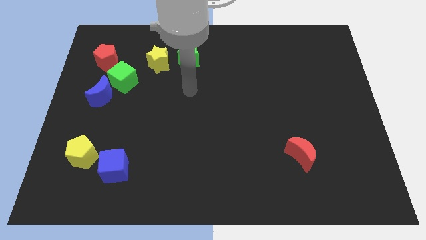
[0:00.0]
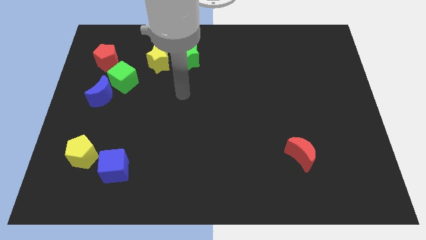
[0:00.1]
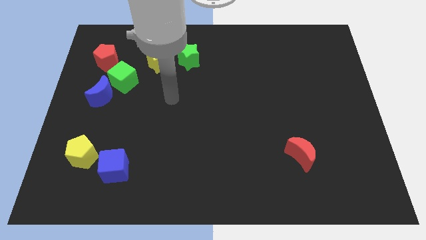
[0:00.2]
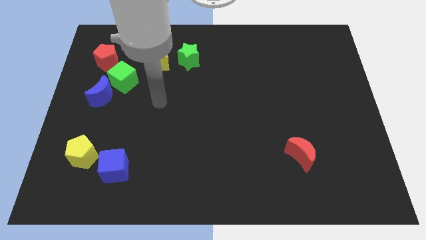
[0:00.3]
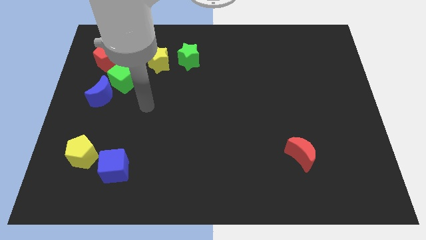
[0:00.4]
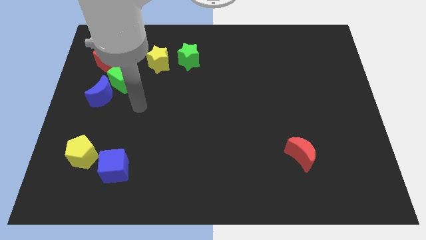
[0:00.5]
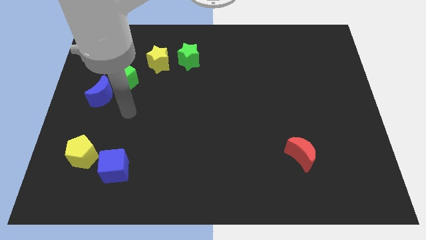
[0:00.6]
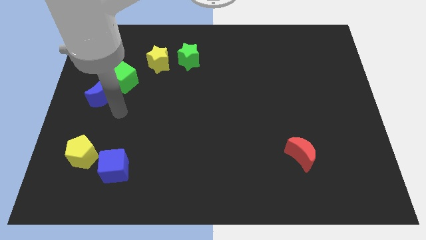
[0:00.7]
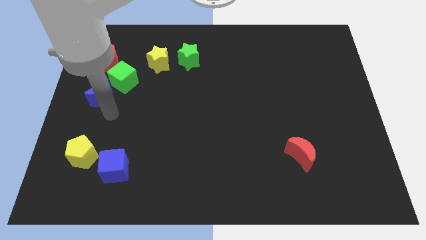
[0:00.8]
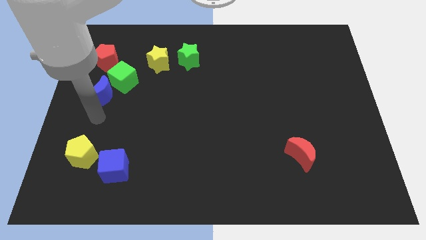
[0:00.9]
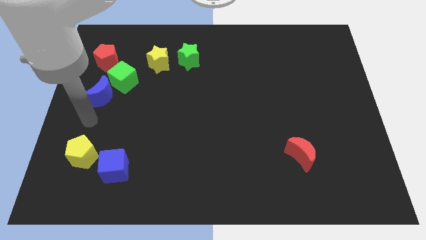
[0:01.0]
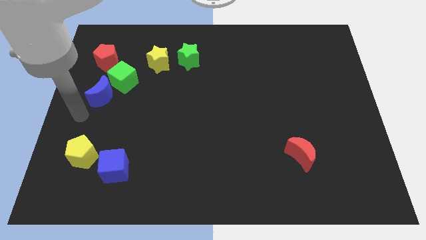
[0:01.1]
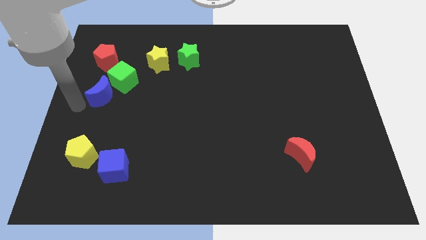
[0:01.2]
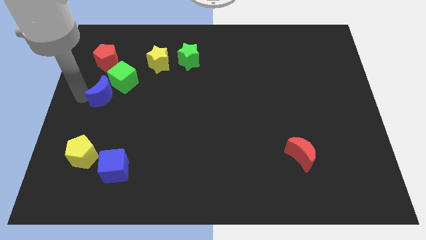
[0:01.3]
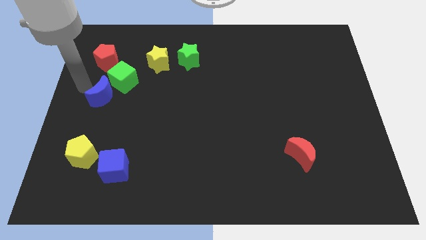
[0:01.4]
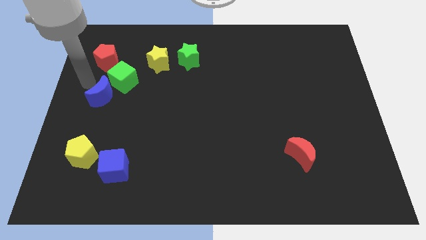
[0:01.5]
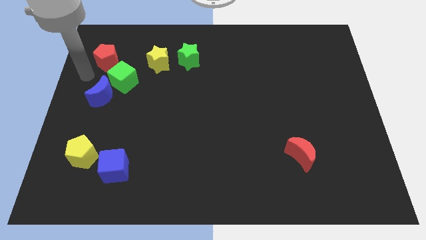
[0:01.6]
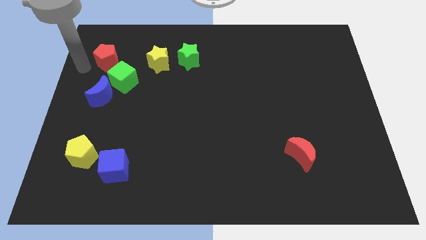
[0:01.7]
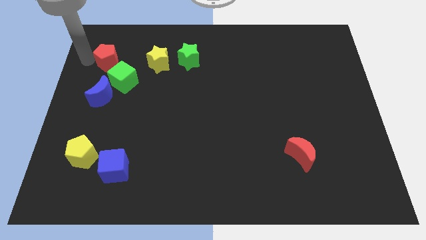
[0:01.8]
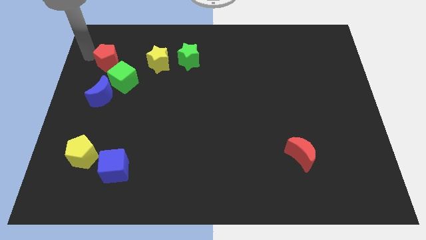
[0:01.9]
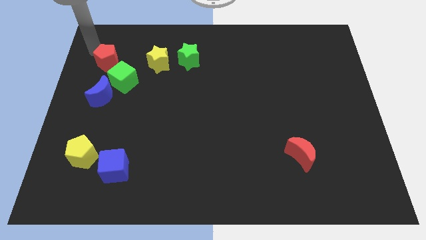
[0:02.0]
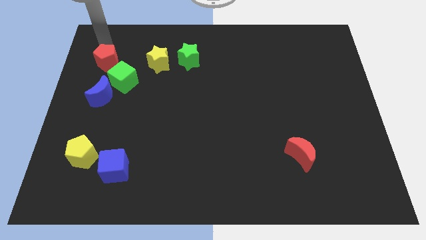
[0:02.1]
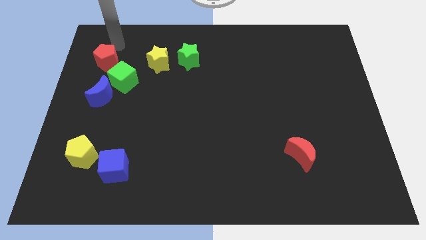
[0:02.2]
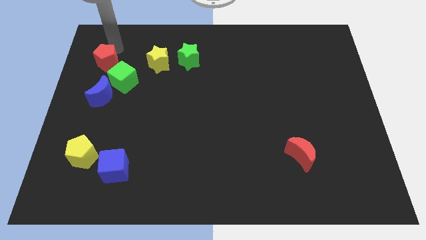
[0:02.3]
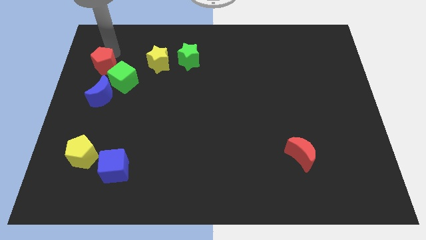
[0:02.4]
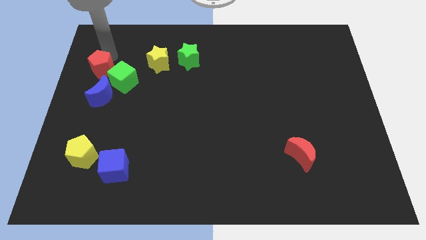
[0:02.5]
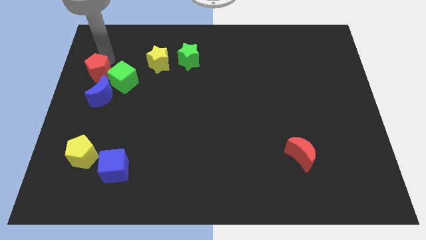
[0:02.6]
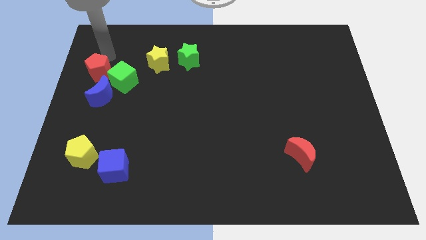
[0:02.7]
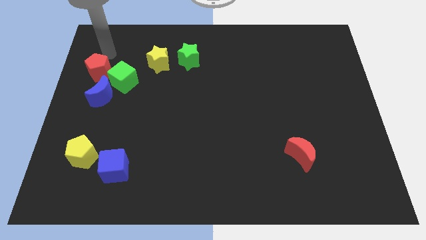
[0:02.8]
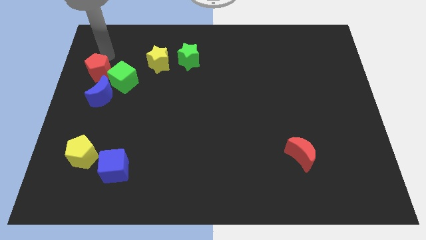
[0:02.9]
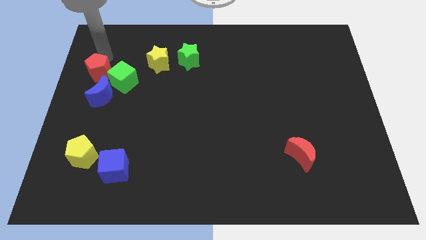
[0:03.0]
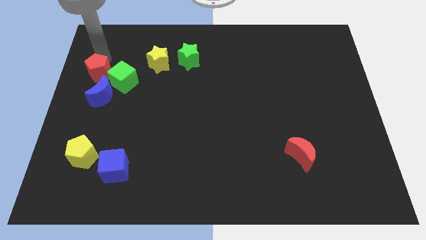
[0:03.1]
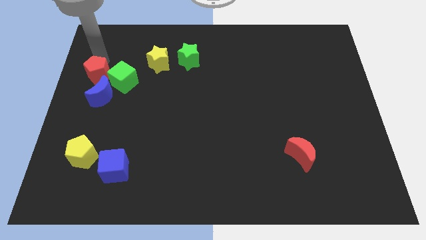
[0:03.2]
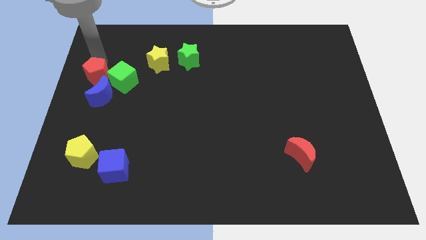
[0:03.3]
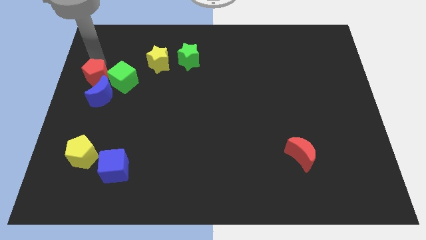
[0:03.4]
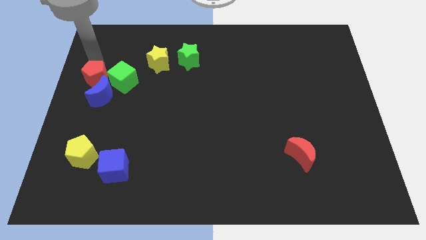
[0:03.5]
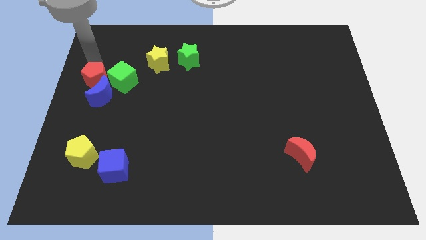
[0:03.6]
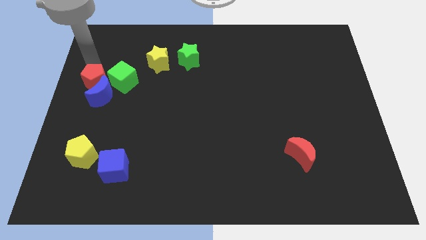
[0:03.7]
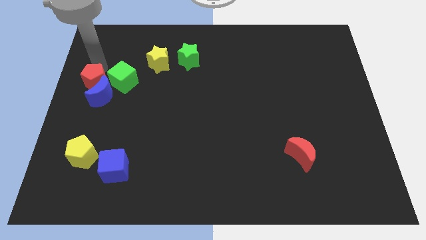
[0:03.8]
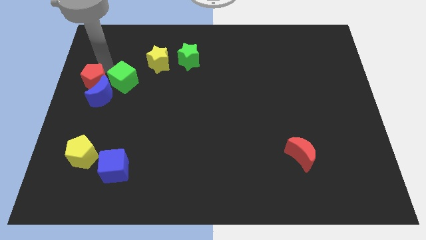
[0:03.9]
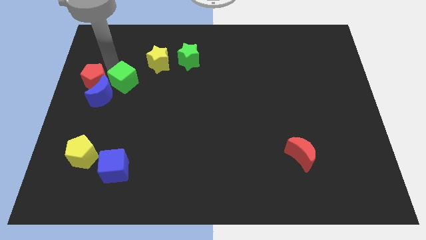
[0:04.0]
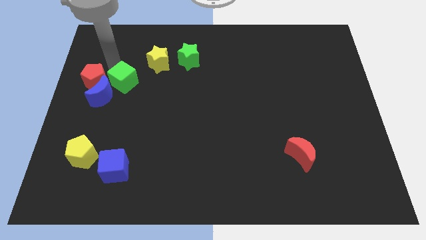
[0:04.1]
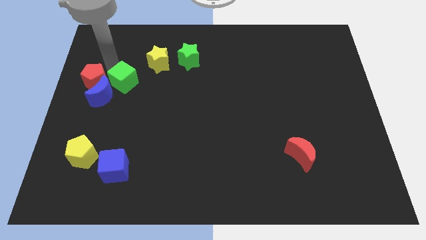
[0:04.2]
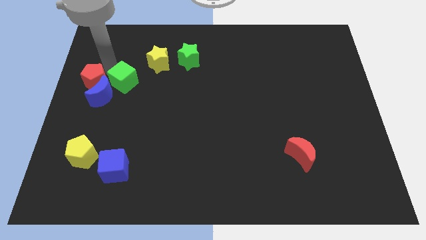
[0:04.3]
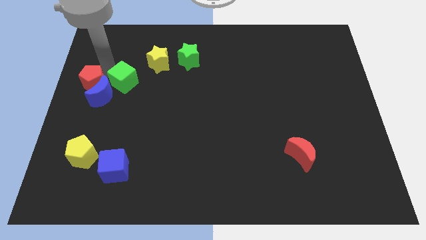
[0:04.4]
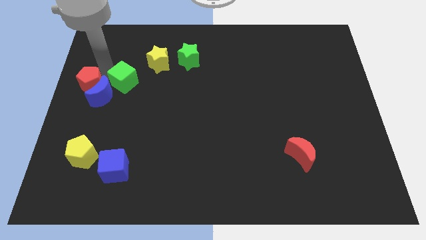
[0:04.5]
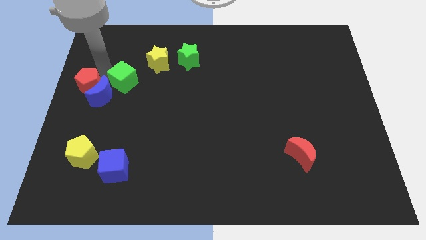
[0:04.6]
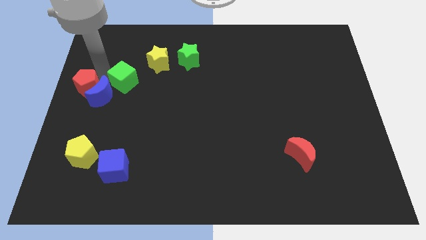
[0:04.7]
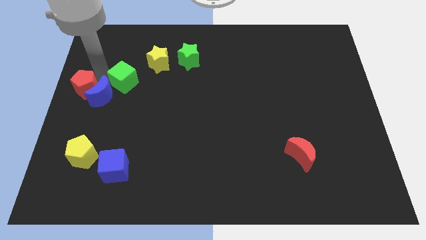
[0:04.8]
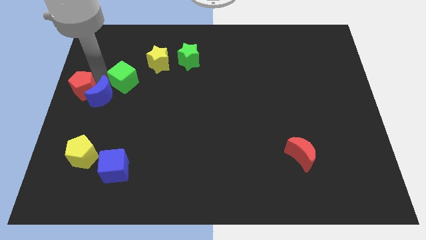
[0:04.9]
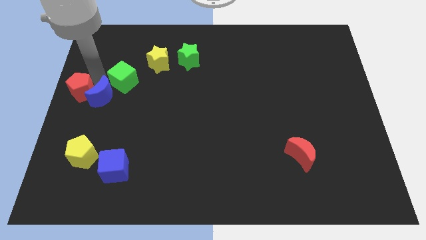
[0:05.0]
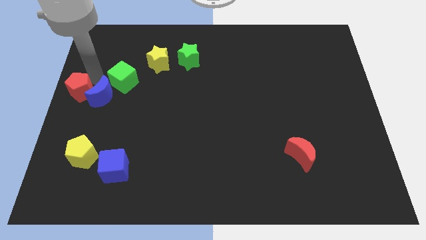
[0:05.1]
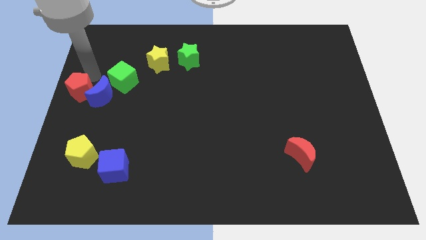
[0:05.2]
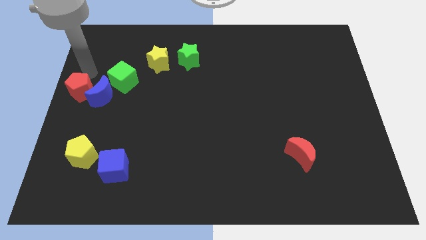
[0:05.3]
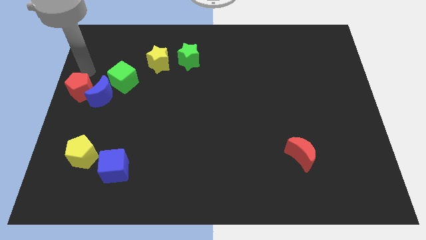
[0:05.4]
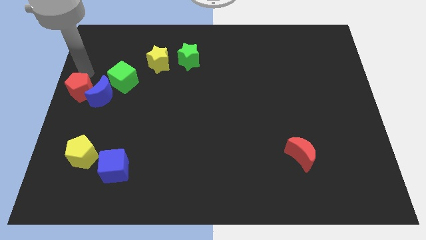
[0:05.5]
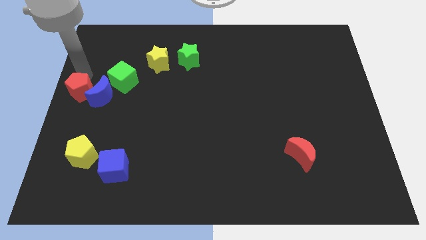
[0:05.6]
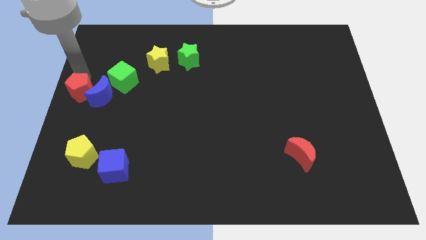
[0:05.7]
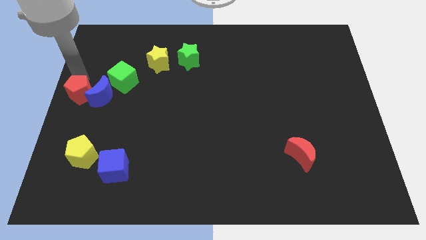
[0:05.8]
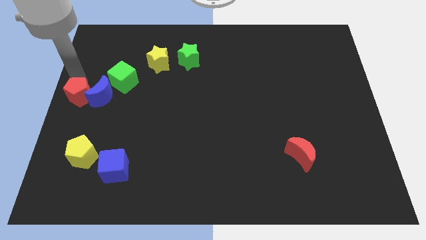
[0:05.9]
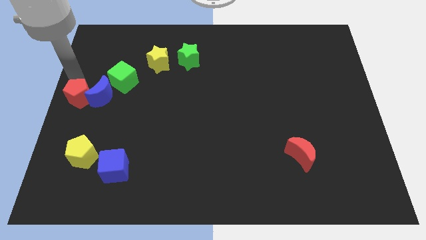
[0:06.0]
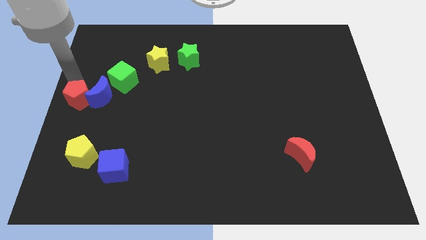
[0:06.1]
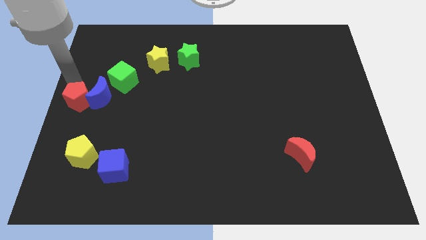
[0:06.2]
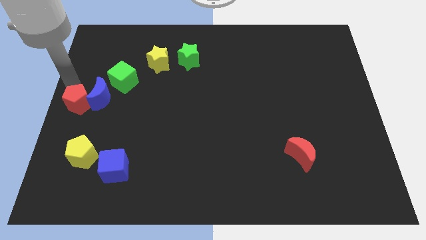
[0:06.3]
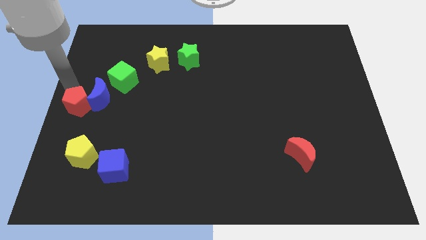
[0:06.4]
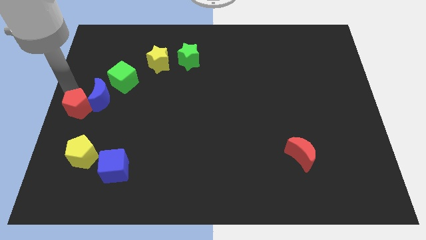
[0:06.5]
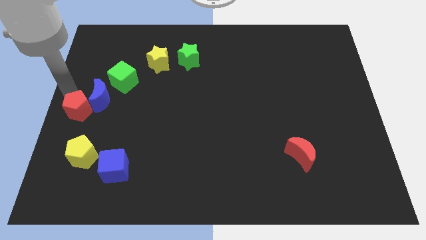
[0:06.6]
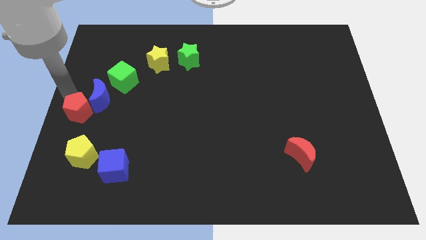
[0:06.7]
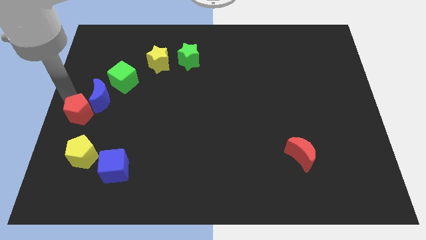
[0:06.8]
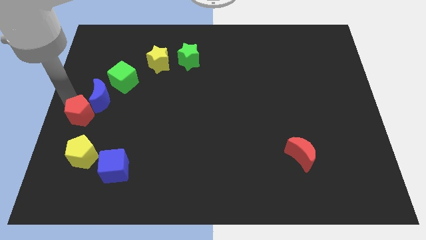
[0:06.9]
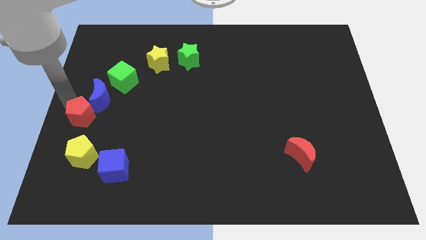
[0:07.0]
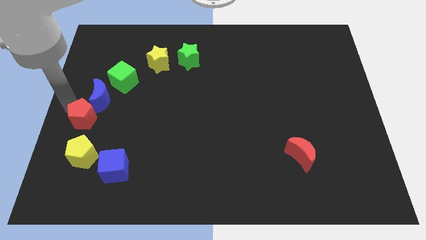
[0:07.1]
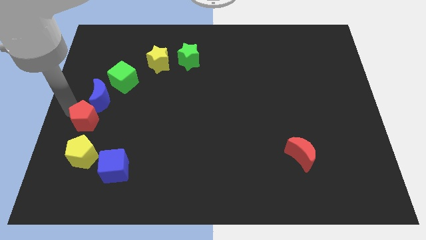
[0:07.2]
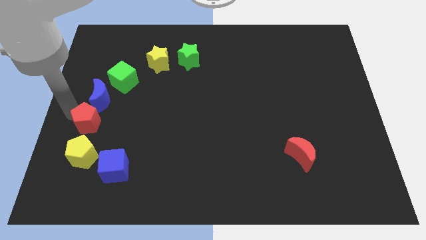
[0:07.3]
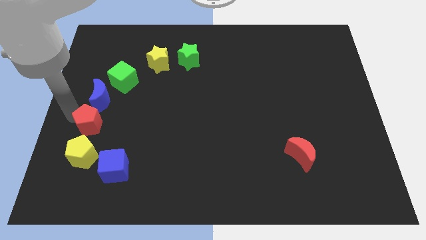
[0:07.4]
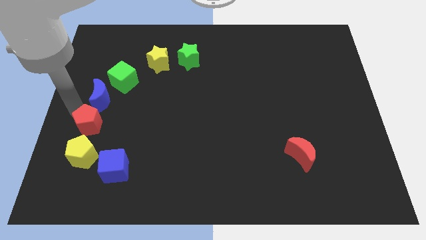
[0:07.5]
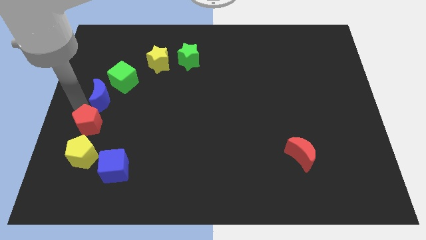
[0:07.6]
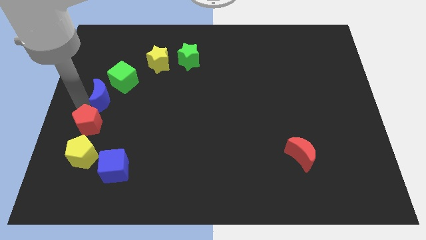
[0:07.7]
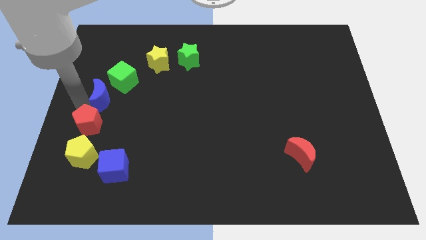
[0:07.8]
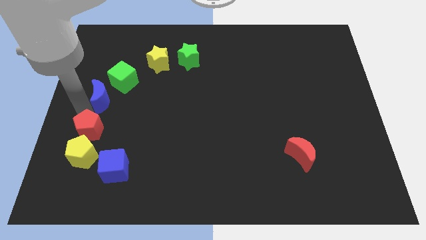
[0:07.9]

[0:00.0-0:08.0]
move the red pentagon to the top left of the blue cube
